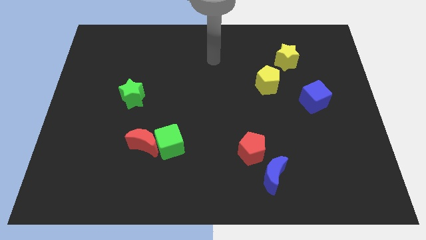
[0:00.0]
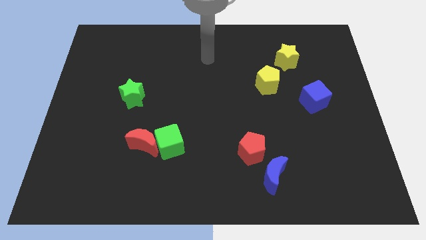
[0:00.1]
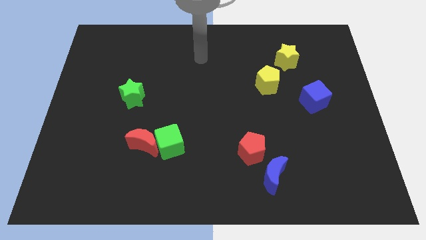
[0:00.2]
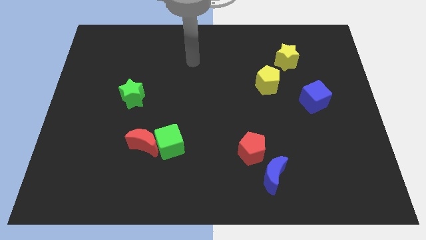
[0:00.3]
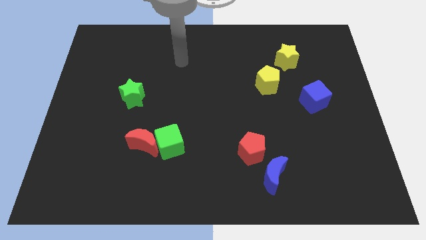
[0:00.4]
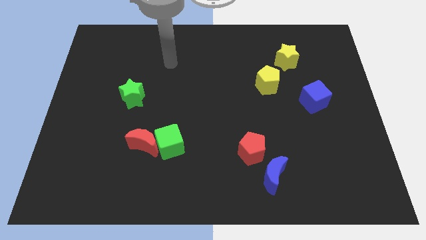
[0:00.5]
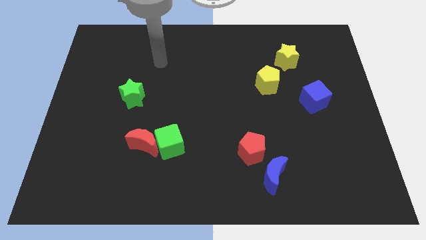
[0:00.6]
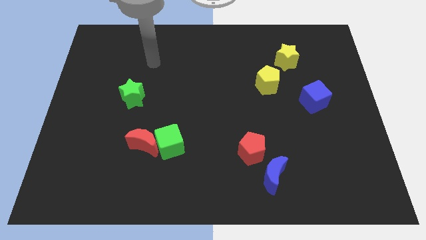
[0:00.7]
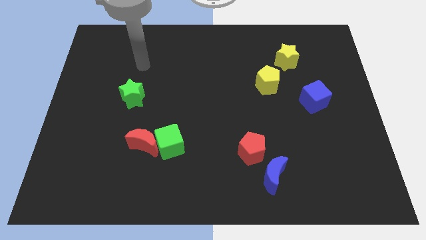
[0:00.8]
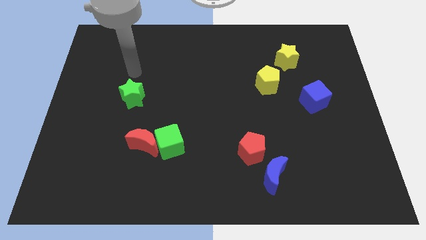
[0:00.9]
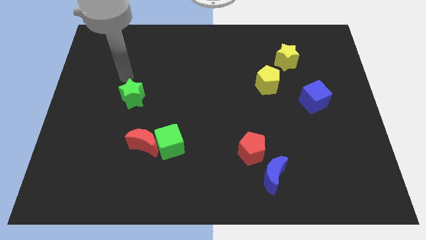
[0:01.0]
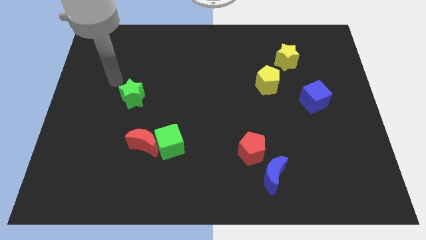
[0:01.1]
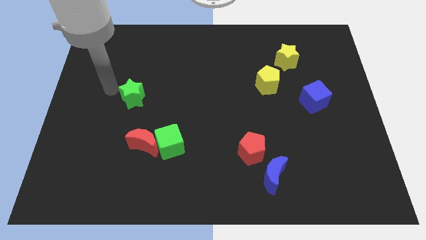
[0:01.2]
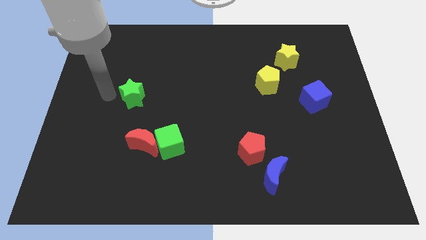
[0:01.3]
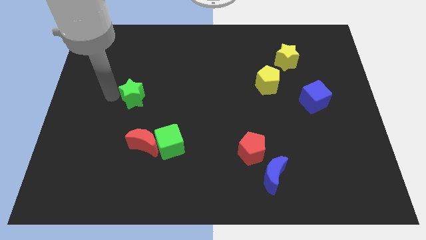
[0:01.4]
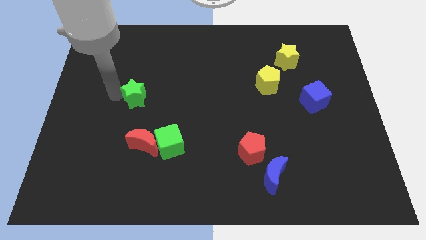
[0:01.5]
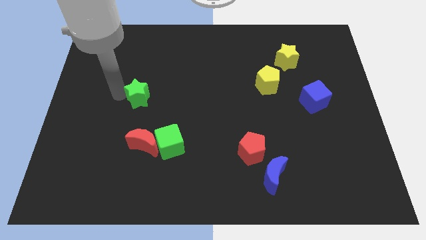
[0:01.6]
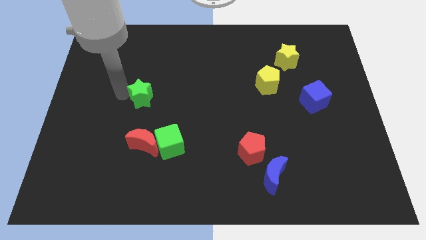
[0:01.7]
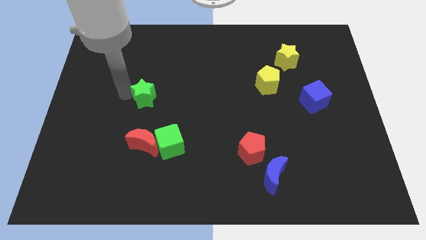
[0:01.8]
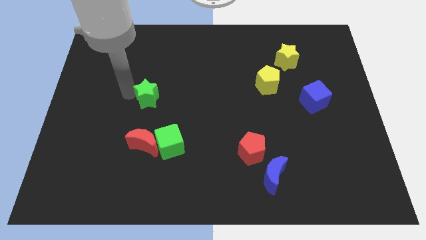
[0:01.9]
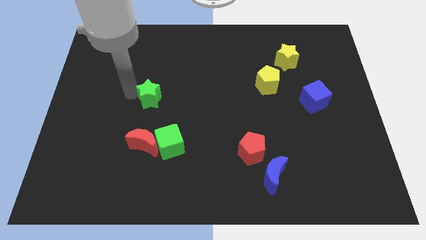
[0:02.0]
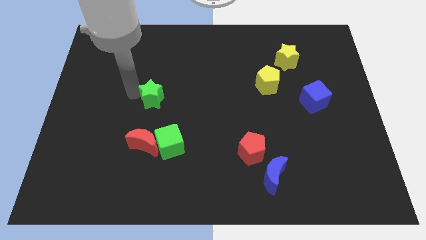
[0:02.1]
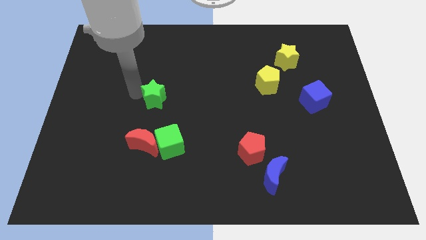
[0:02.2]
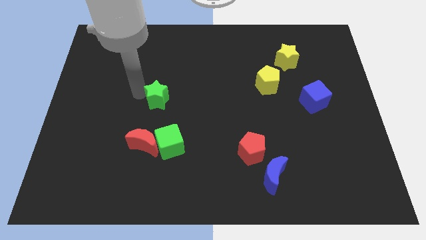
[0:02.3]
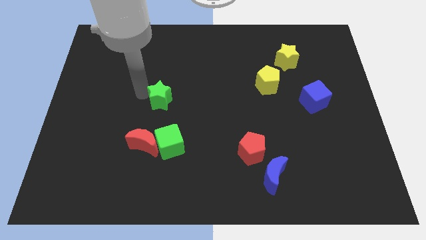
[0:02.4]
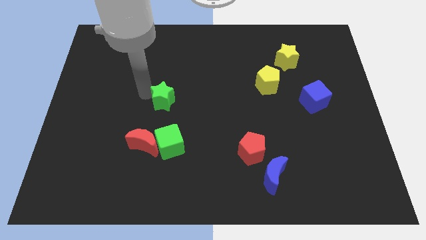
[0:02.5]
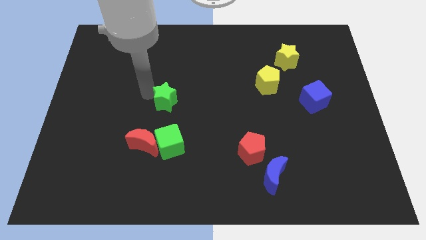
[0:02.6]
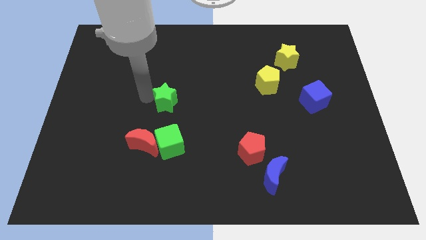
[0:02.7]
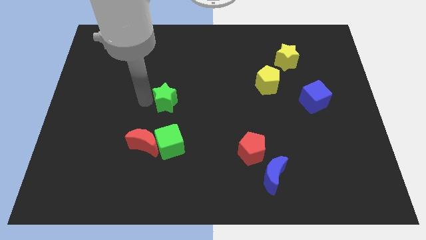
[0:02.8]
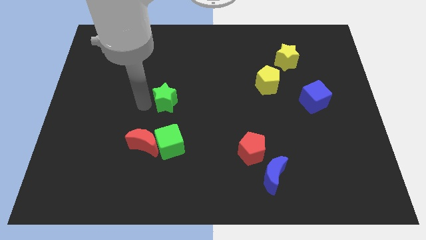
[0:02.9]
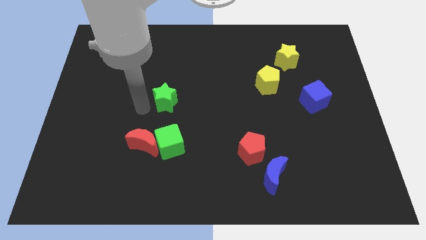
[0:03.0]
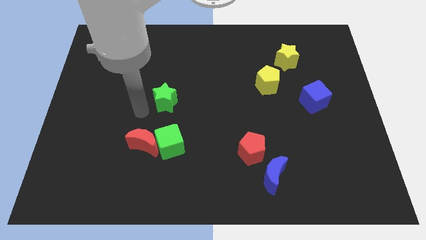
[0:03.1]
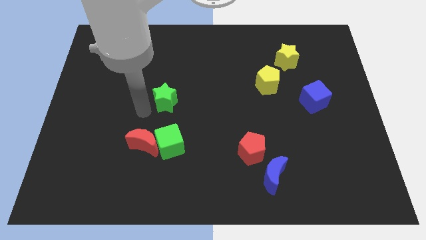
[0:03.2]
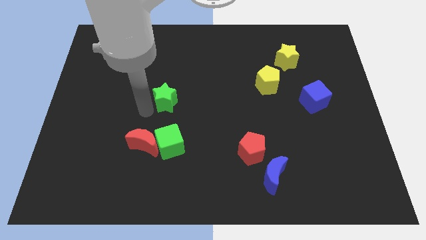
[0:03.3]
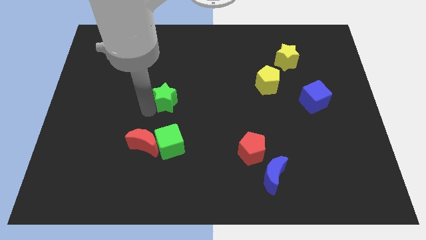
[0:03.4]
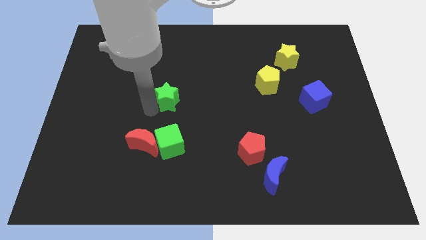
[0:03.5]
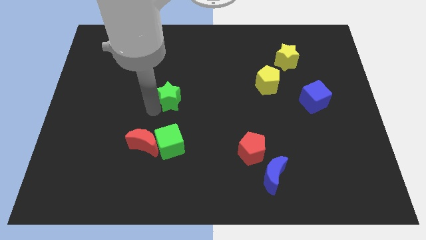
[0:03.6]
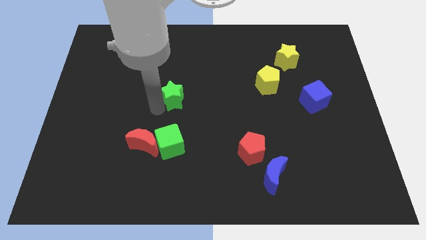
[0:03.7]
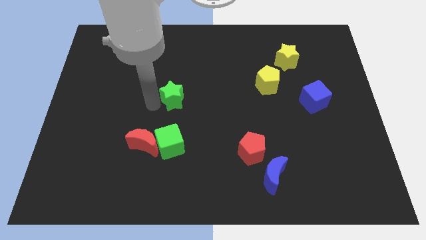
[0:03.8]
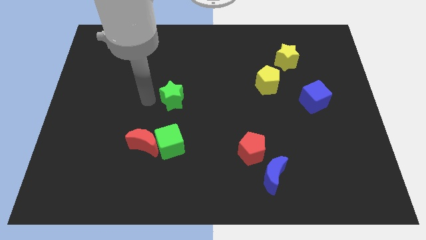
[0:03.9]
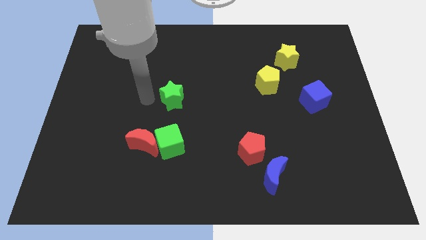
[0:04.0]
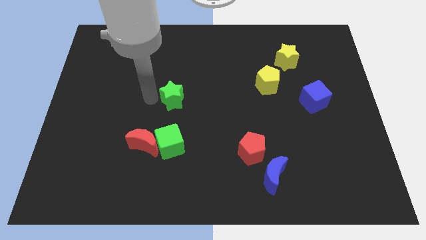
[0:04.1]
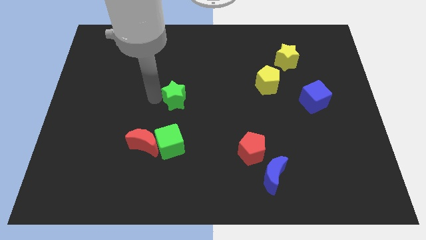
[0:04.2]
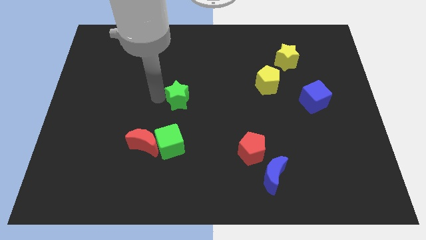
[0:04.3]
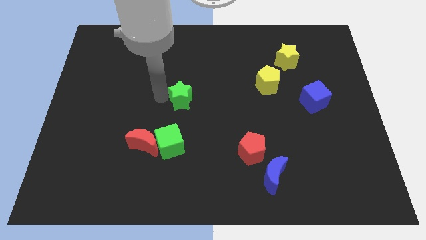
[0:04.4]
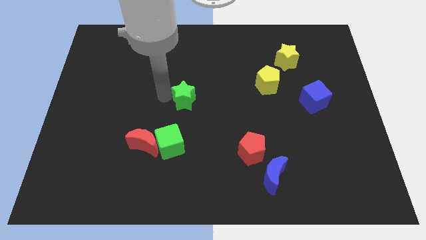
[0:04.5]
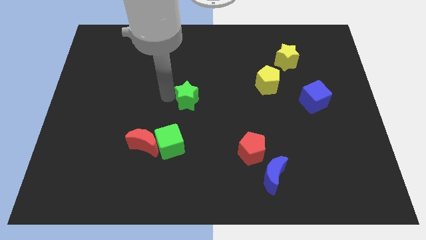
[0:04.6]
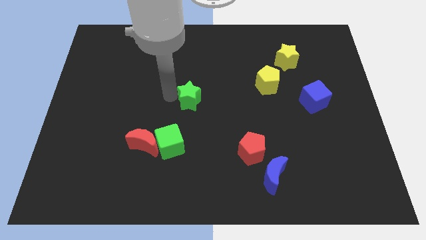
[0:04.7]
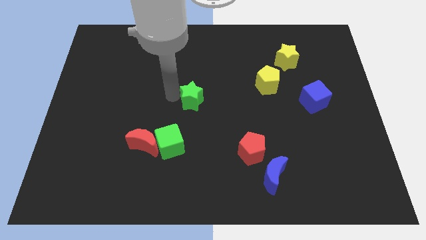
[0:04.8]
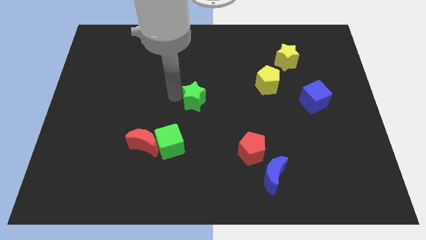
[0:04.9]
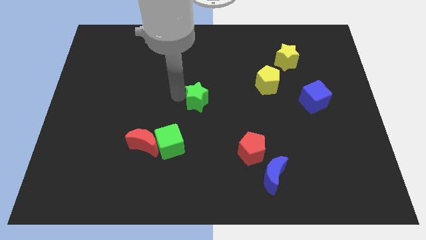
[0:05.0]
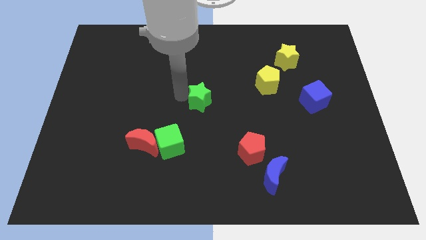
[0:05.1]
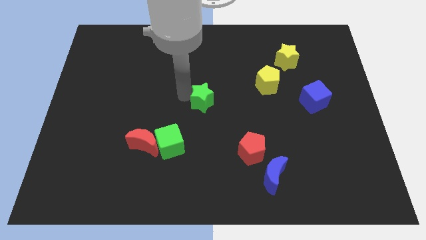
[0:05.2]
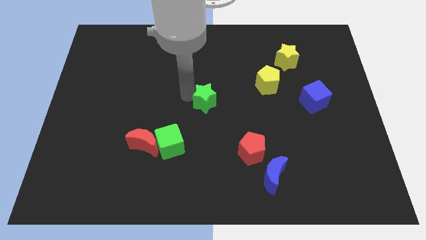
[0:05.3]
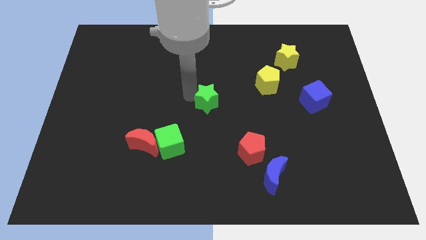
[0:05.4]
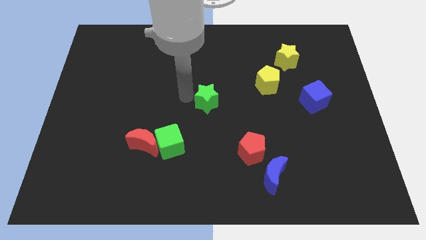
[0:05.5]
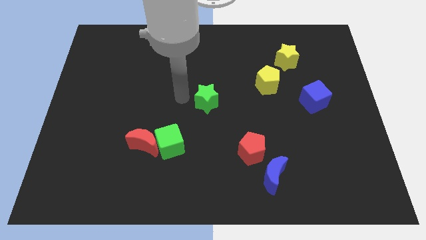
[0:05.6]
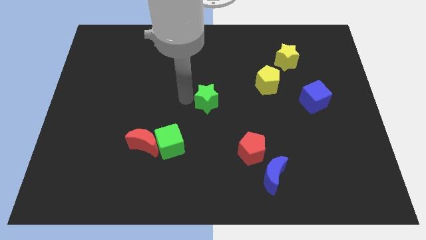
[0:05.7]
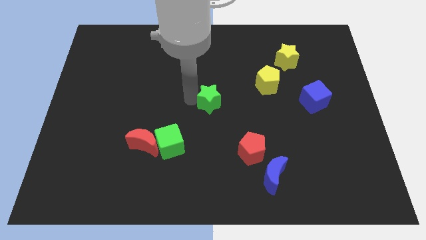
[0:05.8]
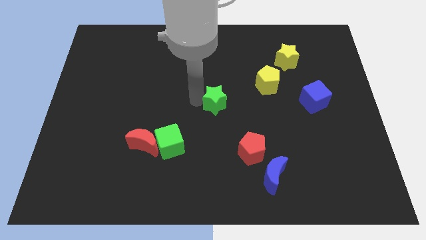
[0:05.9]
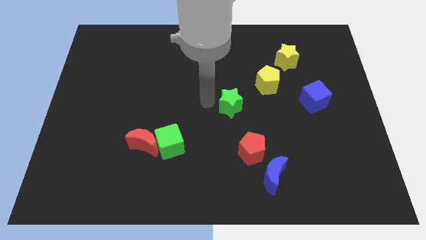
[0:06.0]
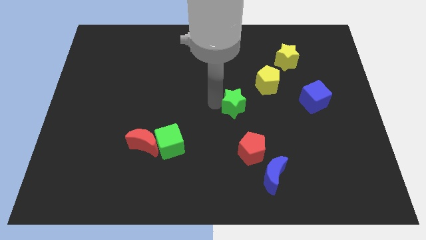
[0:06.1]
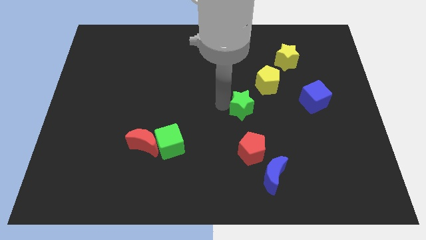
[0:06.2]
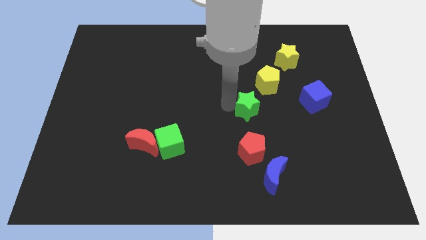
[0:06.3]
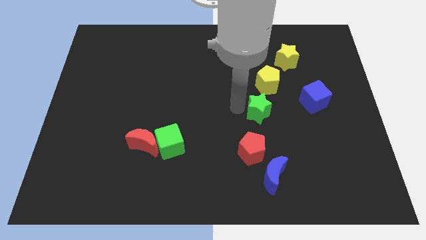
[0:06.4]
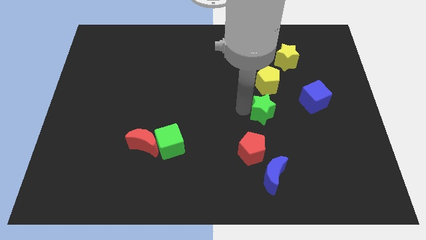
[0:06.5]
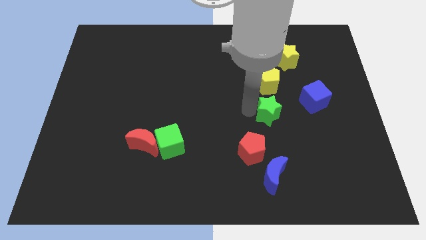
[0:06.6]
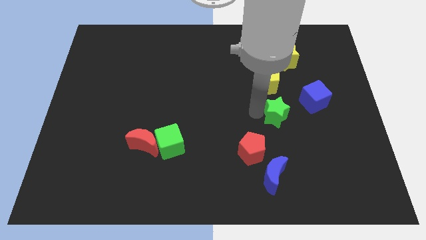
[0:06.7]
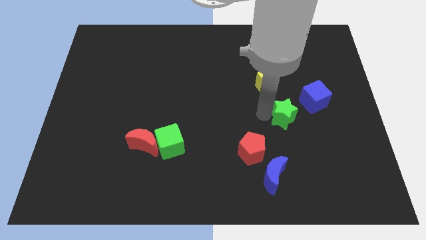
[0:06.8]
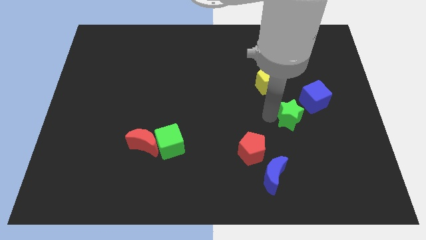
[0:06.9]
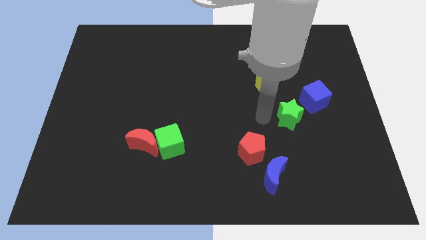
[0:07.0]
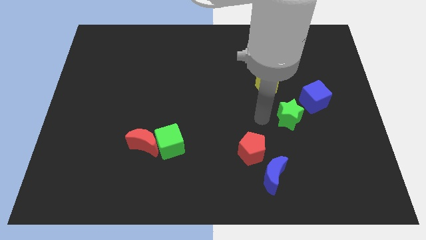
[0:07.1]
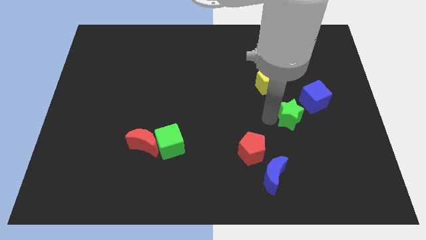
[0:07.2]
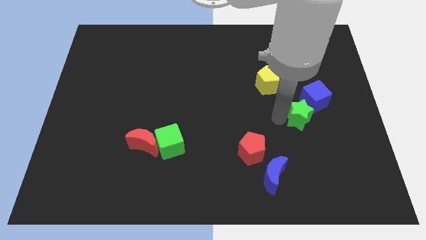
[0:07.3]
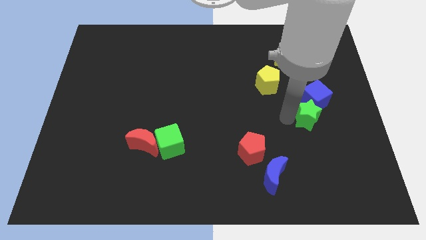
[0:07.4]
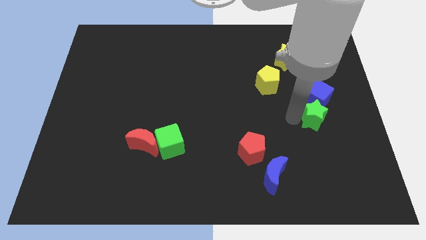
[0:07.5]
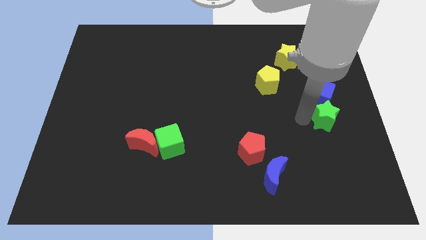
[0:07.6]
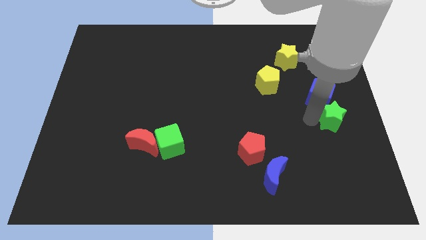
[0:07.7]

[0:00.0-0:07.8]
move the green star to the center right
